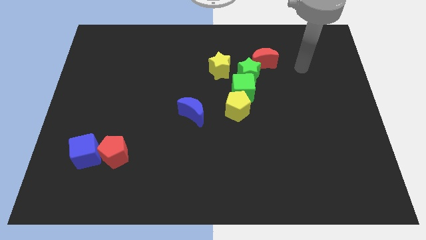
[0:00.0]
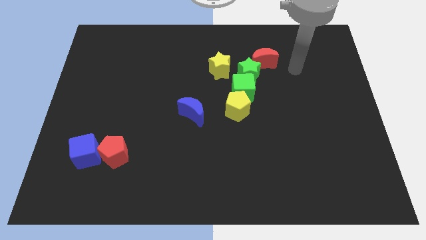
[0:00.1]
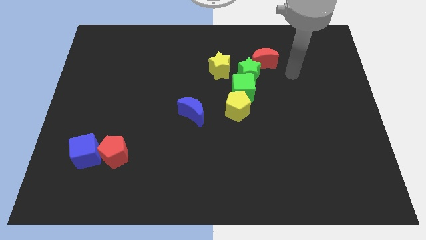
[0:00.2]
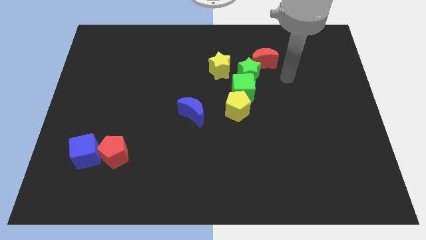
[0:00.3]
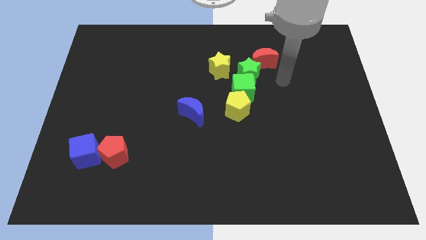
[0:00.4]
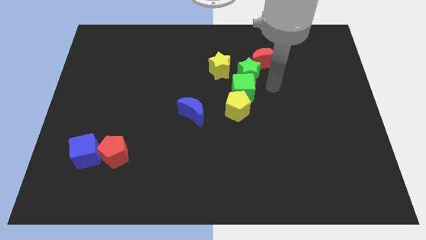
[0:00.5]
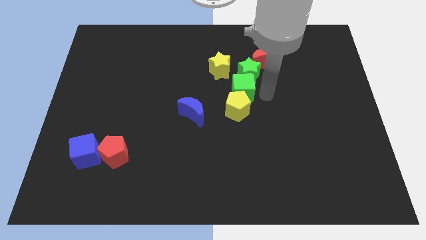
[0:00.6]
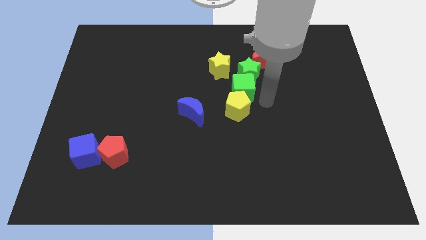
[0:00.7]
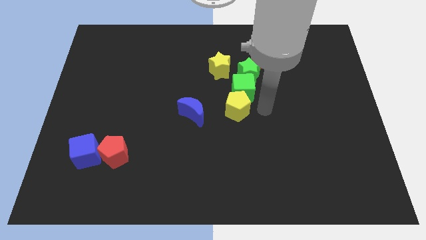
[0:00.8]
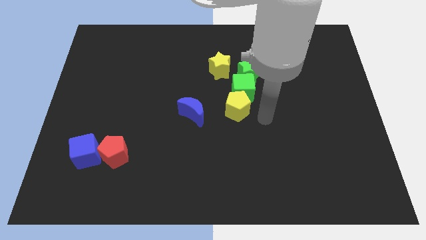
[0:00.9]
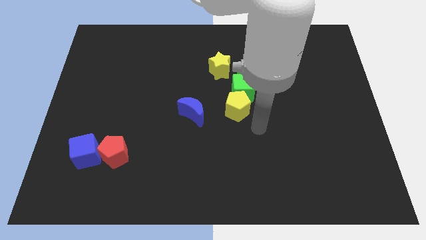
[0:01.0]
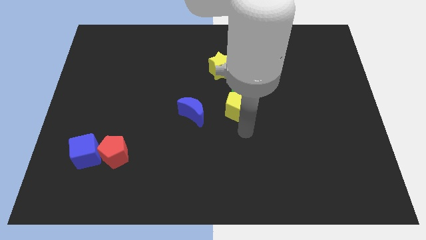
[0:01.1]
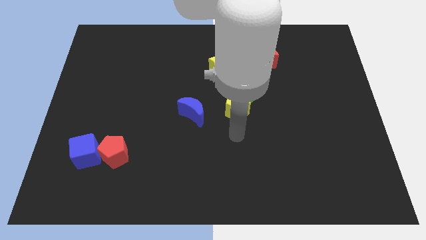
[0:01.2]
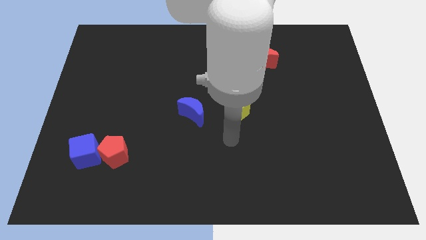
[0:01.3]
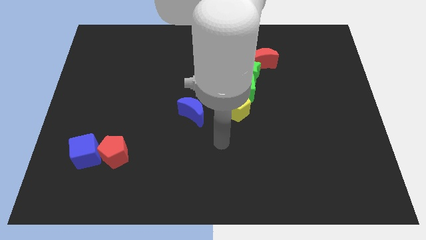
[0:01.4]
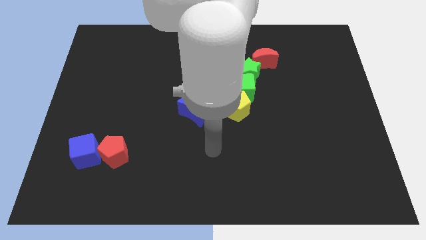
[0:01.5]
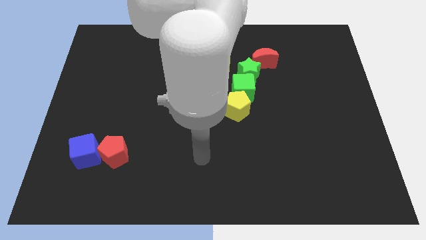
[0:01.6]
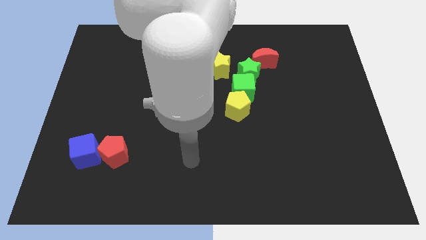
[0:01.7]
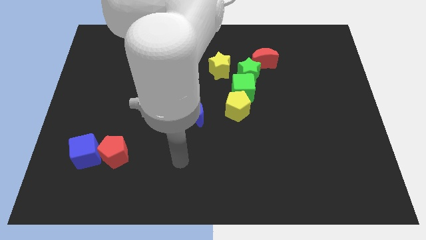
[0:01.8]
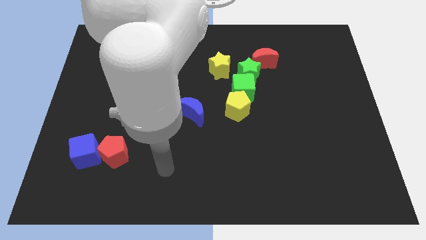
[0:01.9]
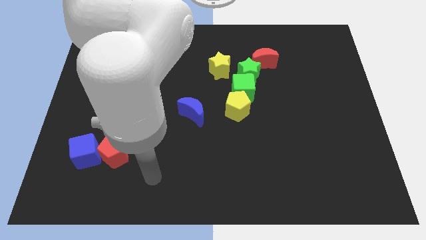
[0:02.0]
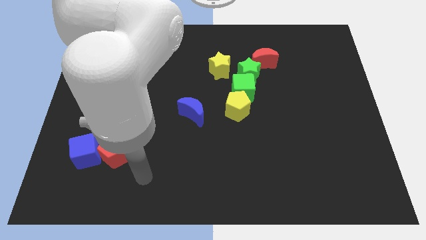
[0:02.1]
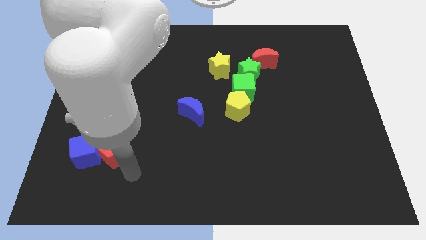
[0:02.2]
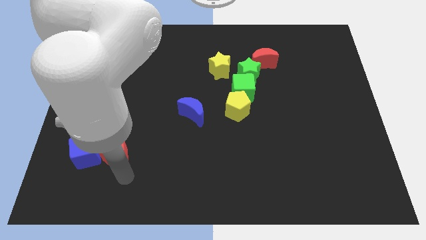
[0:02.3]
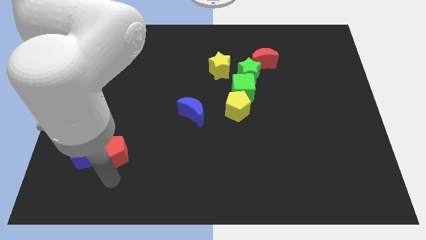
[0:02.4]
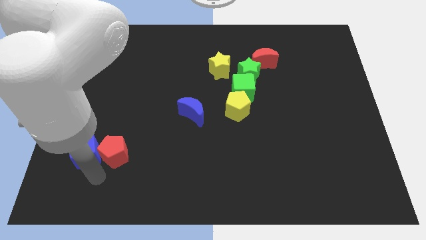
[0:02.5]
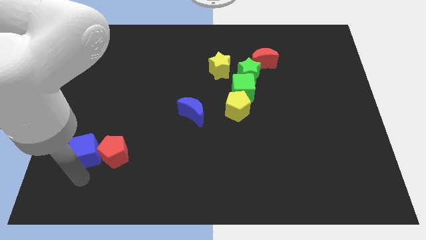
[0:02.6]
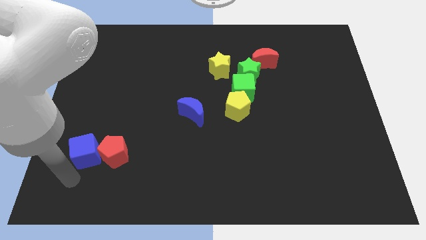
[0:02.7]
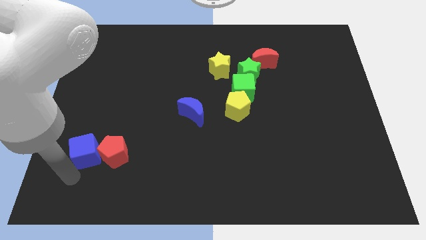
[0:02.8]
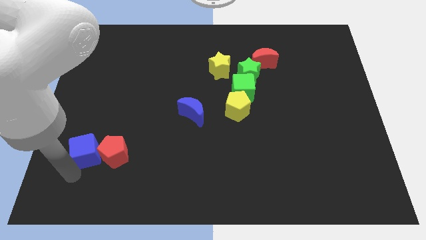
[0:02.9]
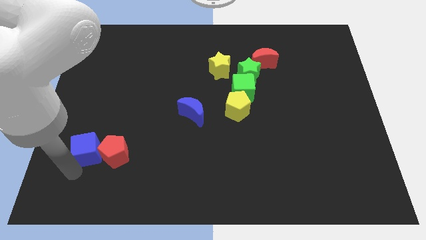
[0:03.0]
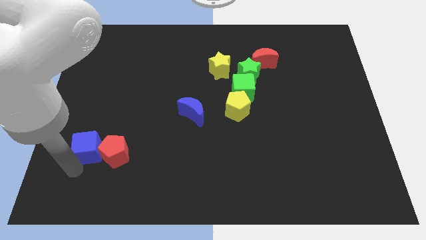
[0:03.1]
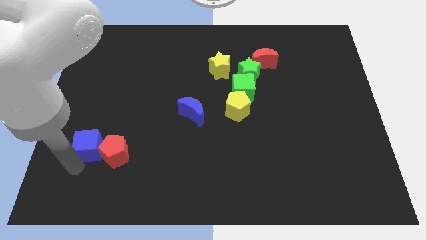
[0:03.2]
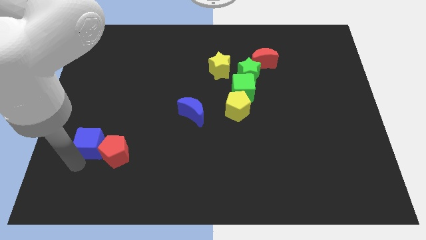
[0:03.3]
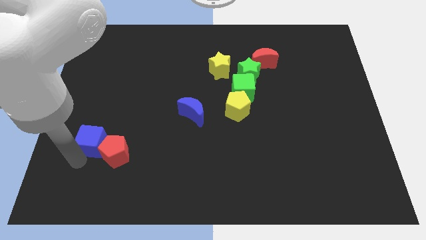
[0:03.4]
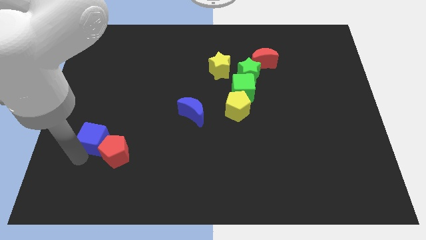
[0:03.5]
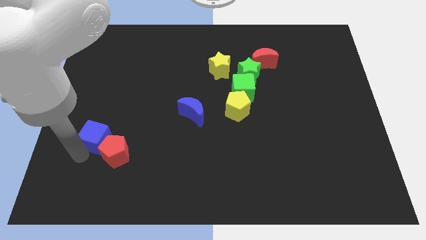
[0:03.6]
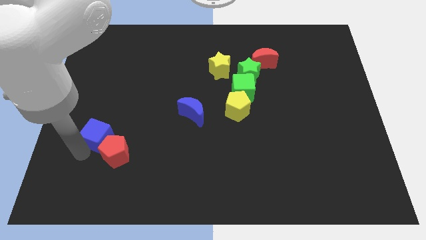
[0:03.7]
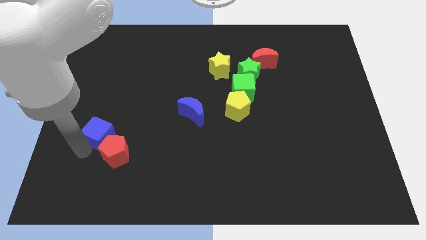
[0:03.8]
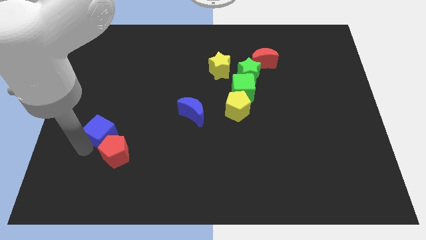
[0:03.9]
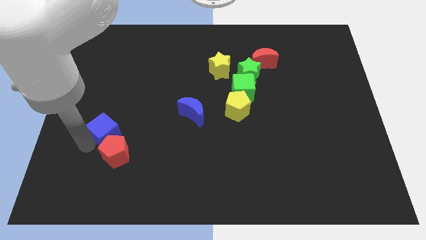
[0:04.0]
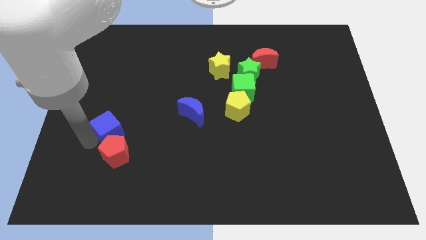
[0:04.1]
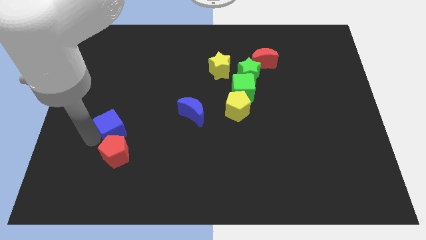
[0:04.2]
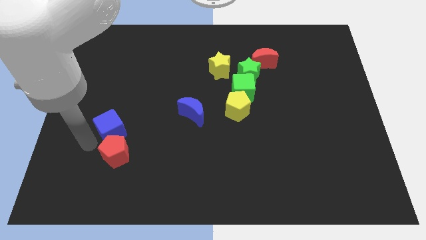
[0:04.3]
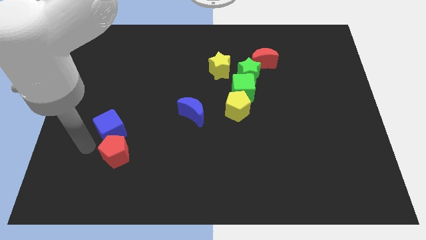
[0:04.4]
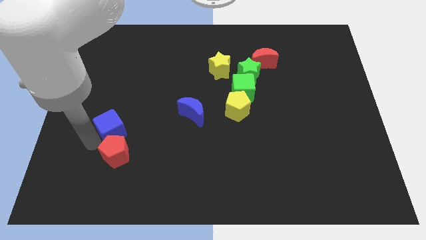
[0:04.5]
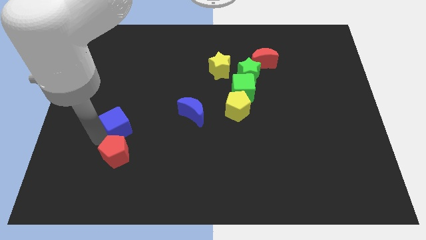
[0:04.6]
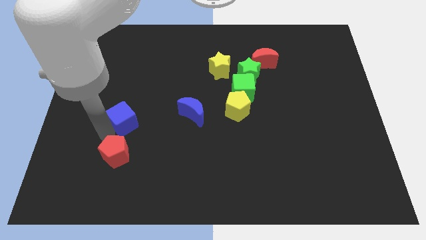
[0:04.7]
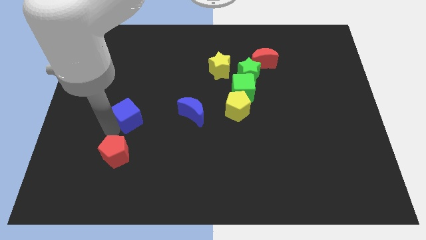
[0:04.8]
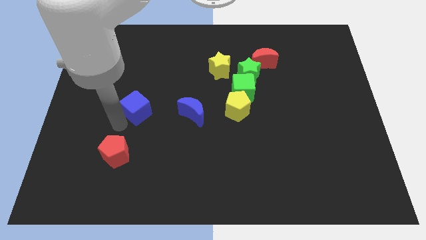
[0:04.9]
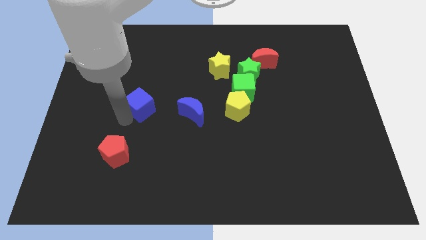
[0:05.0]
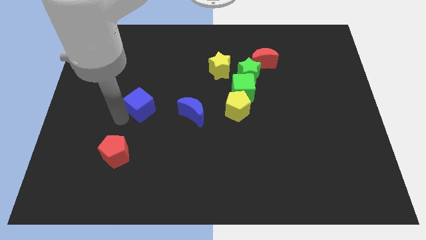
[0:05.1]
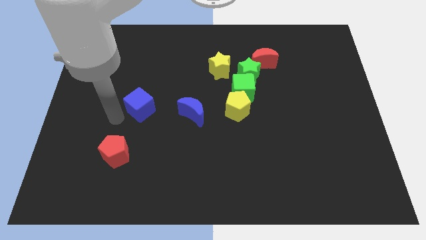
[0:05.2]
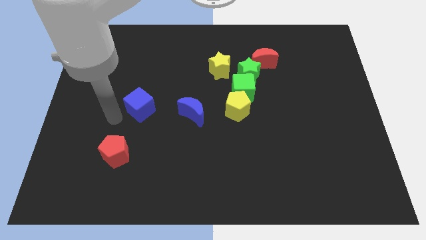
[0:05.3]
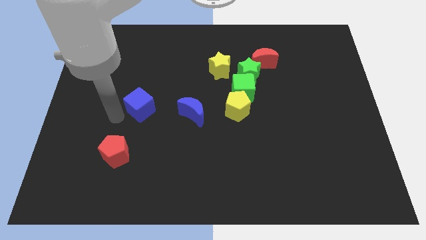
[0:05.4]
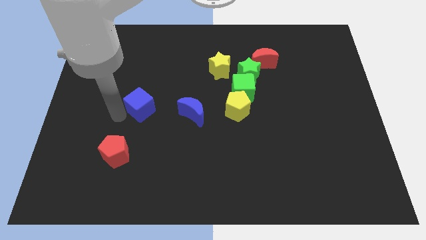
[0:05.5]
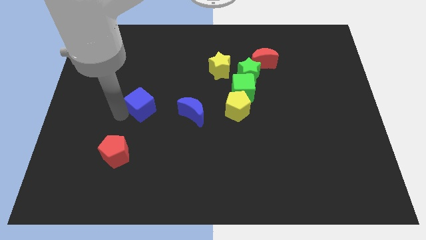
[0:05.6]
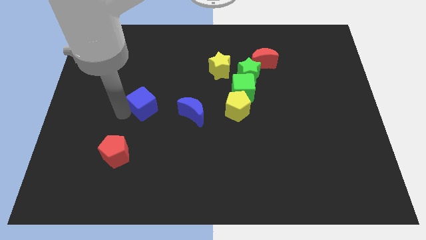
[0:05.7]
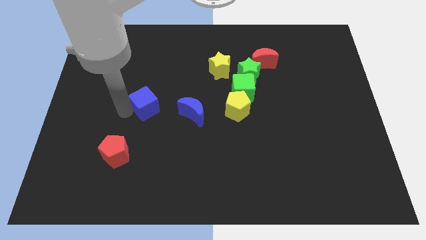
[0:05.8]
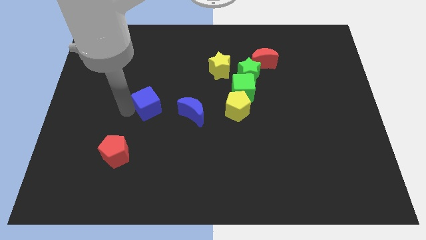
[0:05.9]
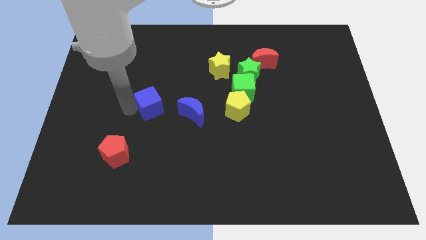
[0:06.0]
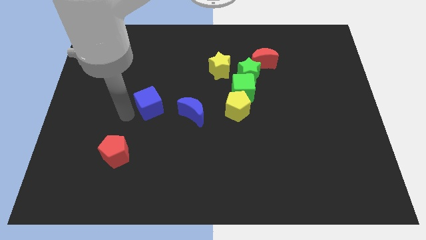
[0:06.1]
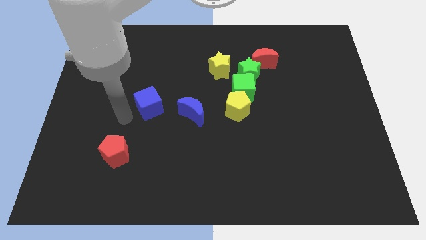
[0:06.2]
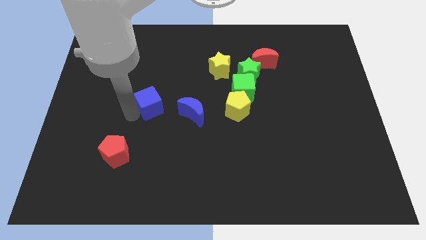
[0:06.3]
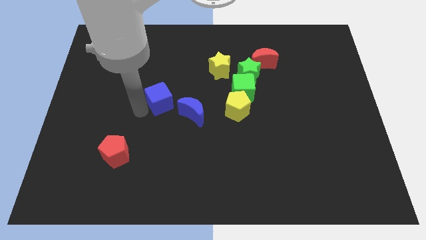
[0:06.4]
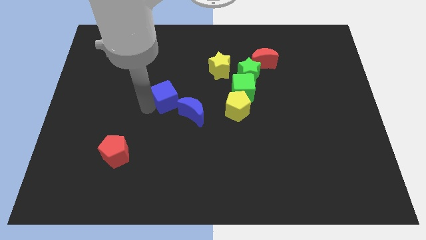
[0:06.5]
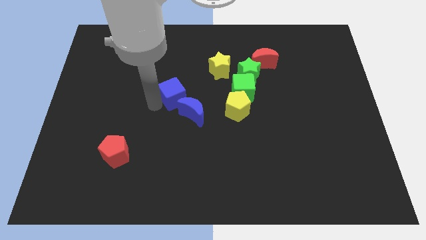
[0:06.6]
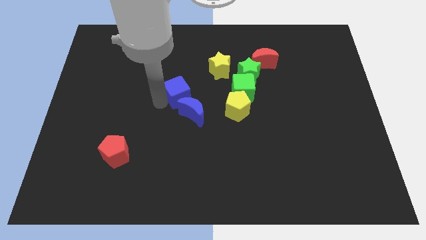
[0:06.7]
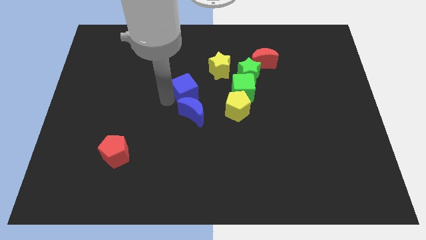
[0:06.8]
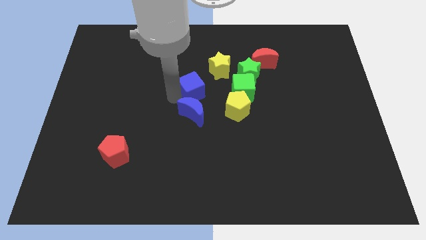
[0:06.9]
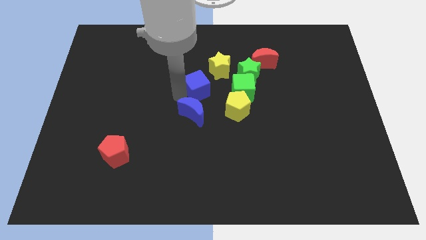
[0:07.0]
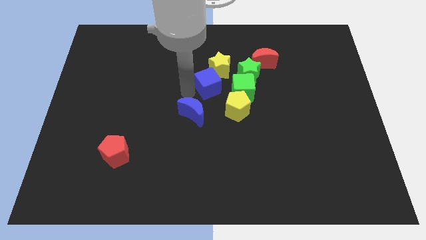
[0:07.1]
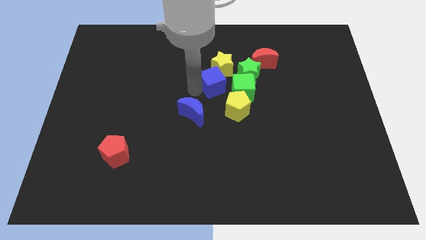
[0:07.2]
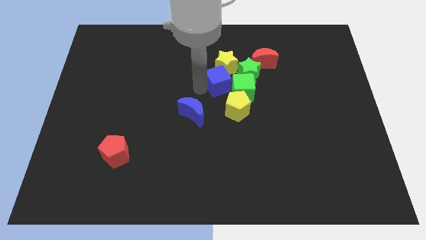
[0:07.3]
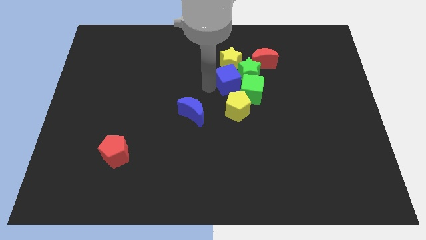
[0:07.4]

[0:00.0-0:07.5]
slide the blue cube close to the green star
